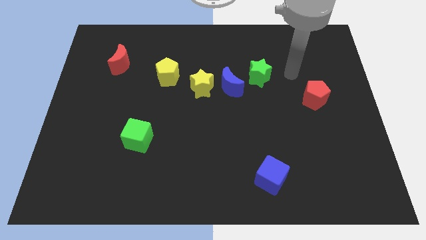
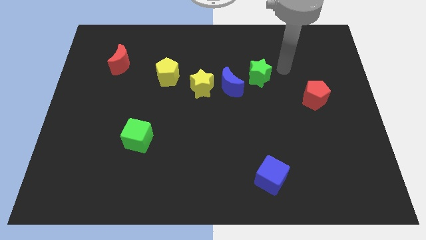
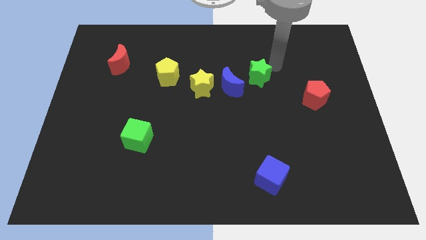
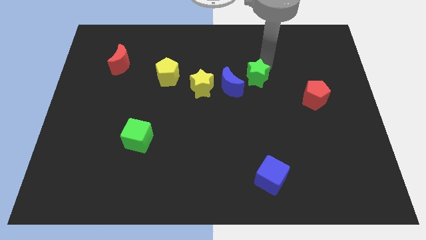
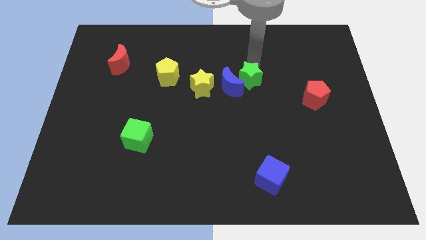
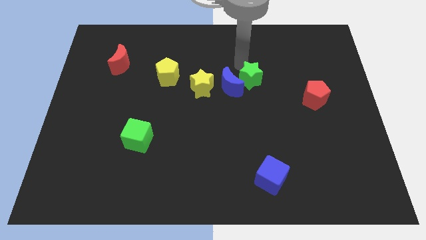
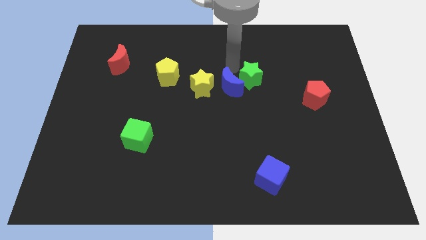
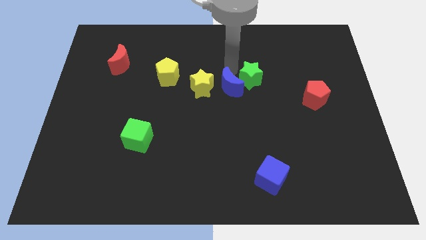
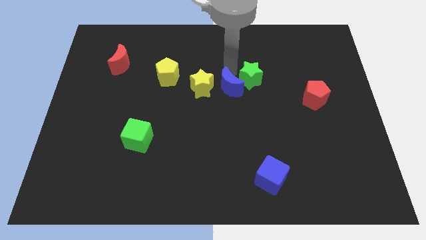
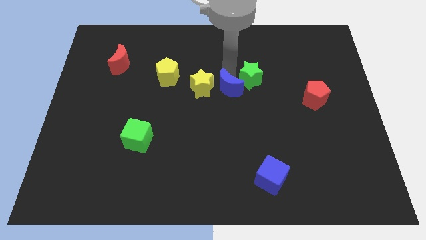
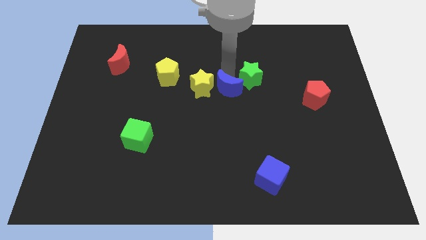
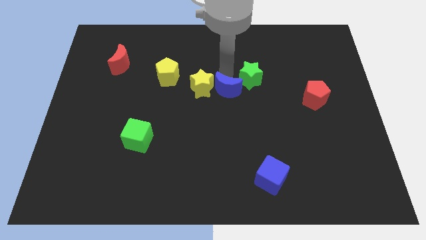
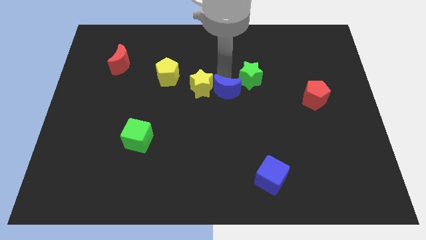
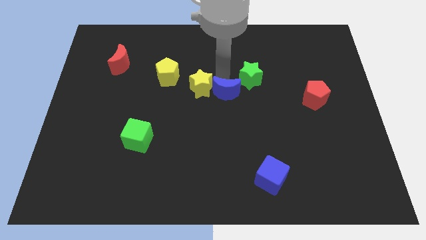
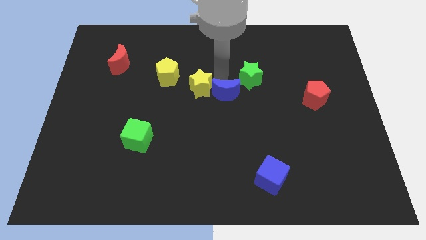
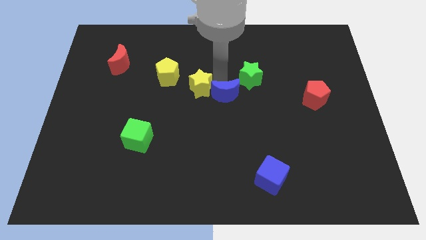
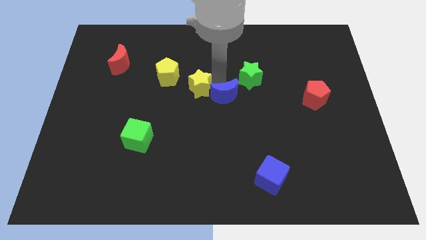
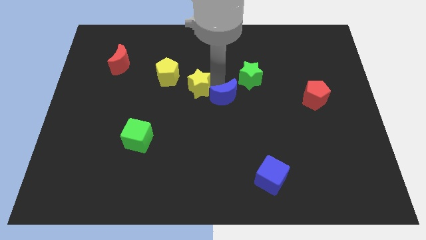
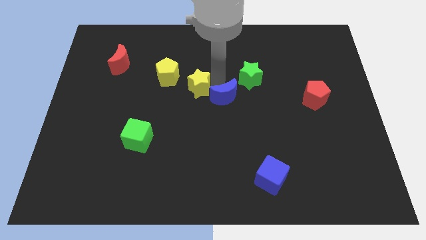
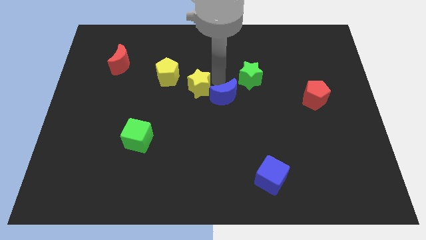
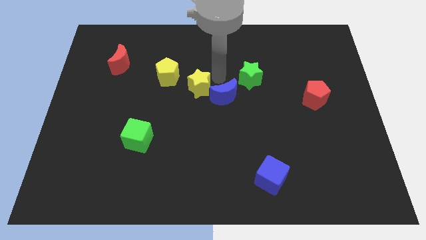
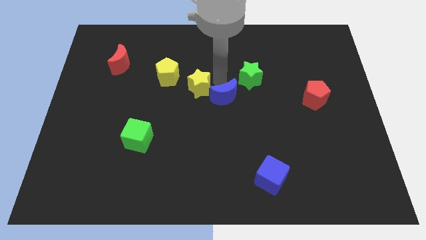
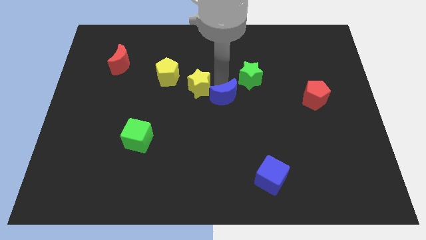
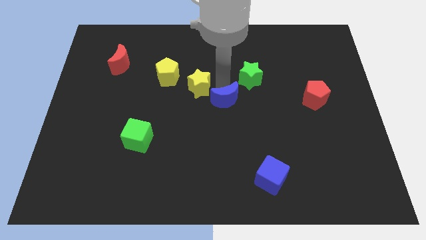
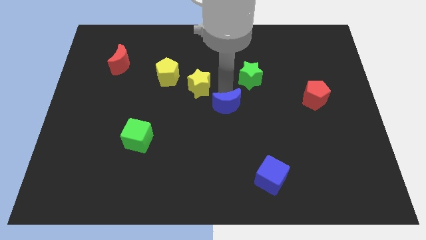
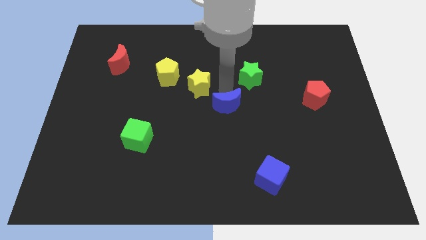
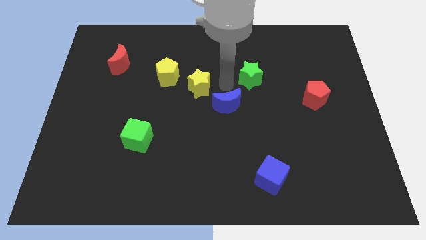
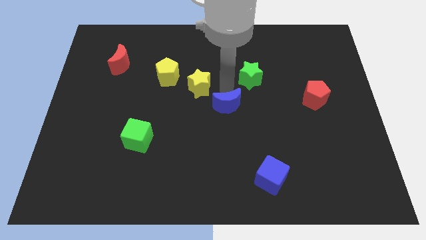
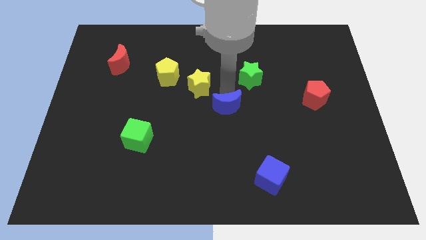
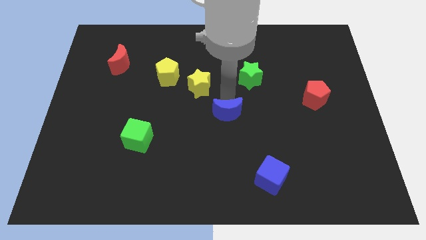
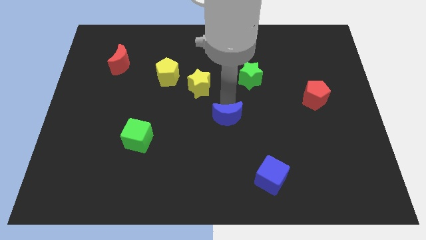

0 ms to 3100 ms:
move the blue moon away from the yellow star and green star

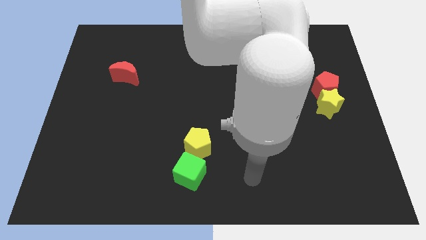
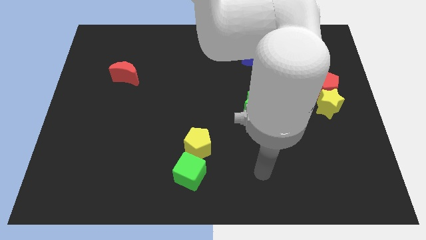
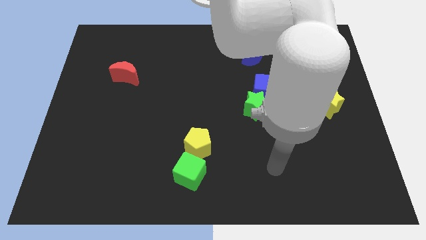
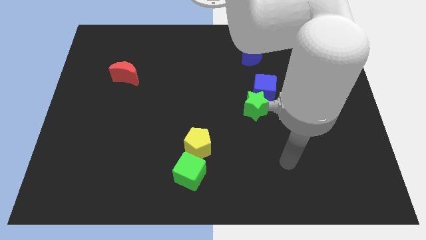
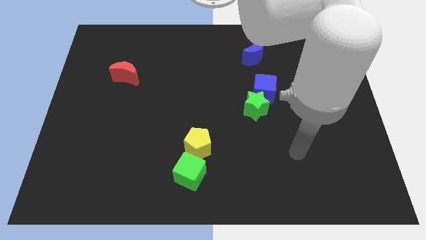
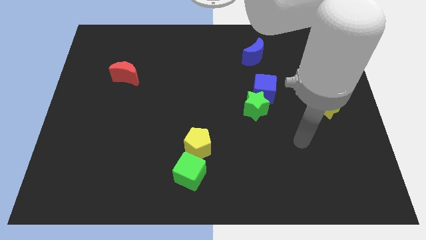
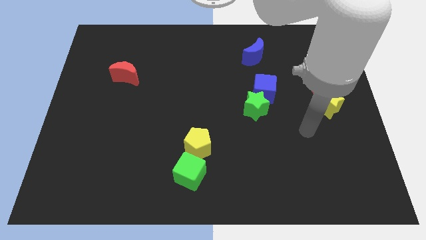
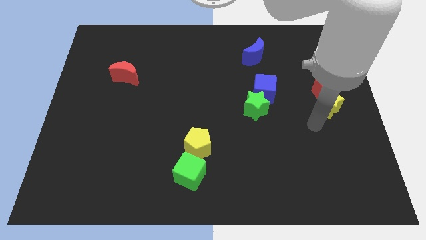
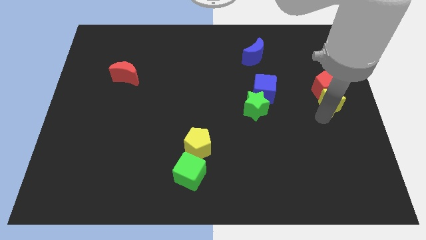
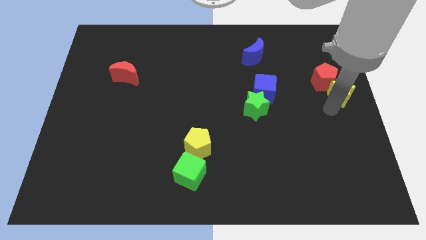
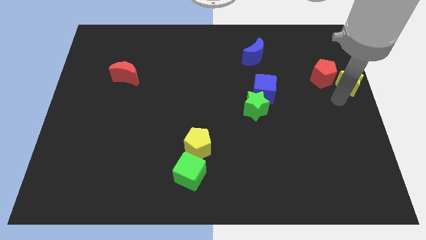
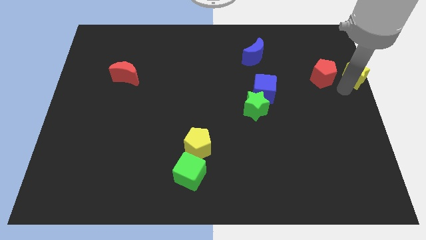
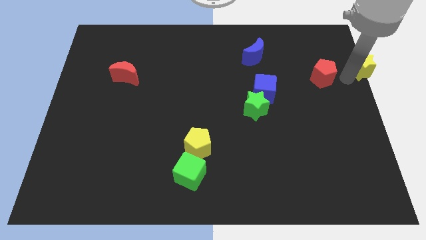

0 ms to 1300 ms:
move the red pentagon away from the yellow star

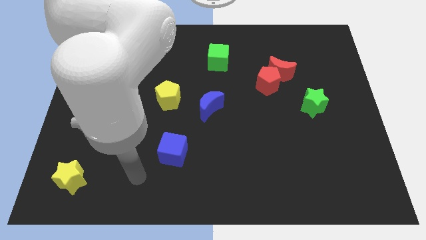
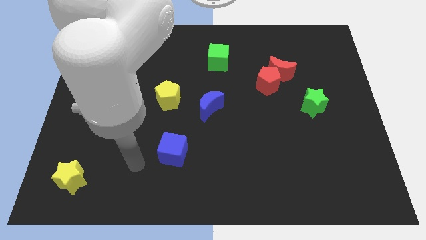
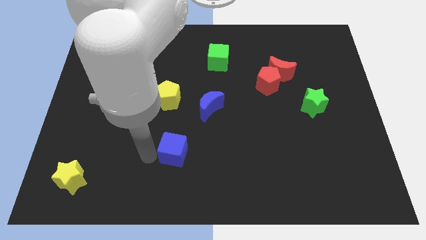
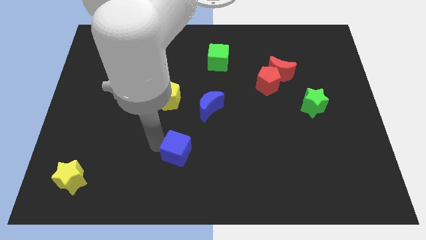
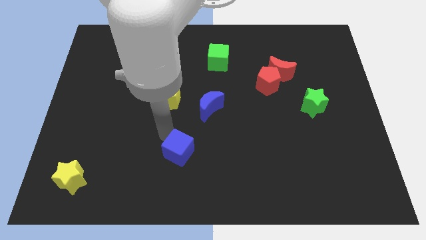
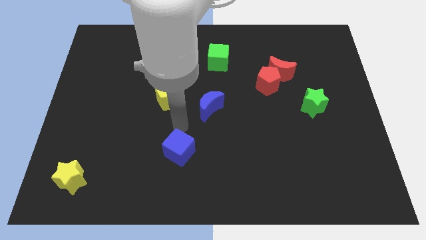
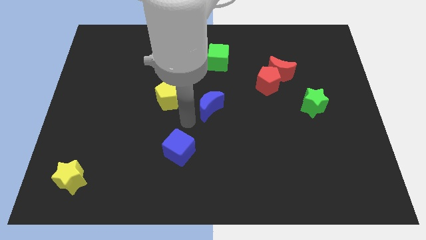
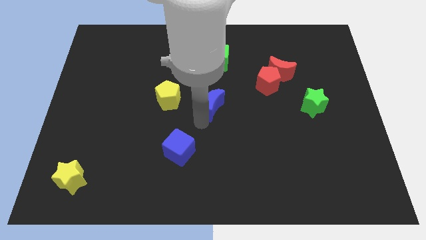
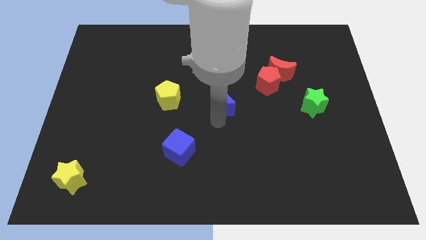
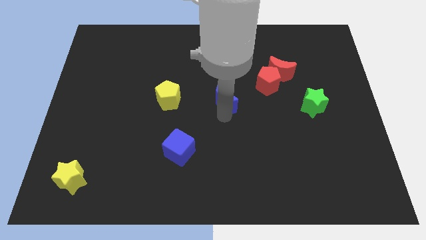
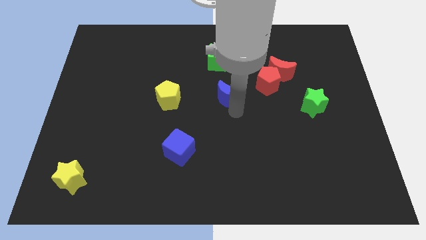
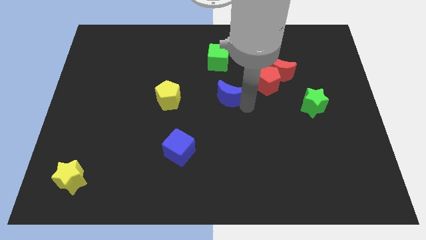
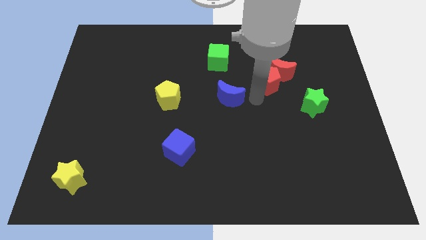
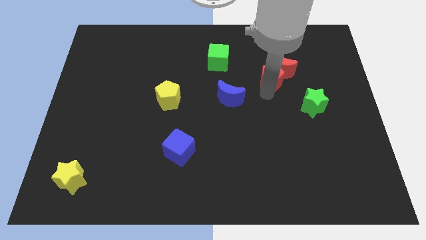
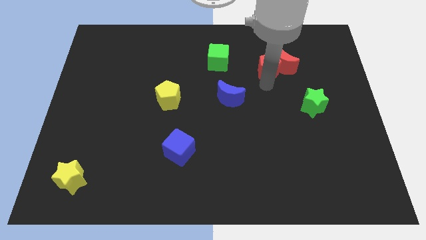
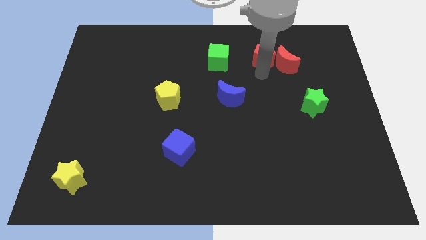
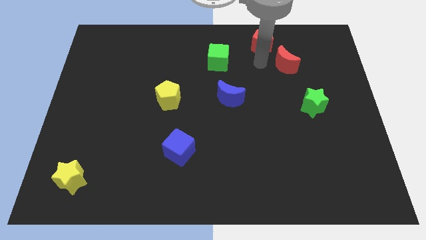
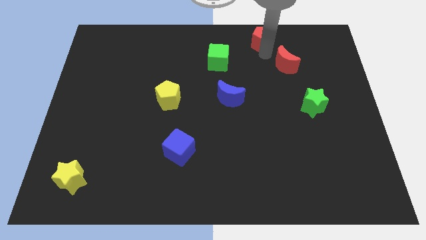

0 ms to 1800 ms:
separate the red moon from the red pentagon

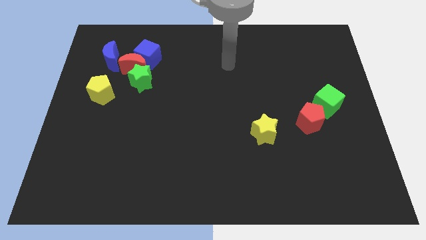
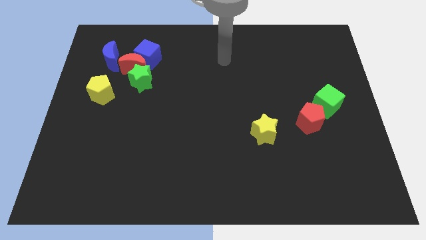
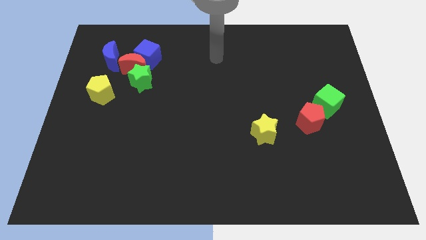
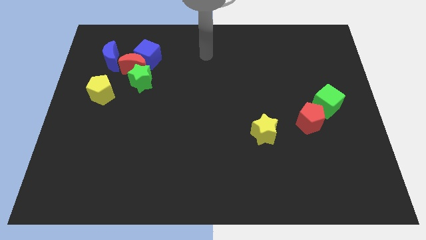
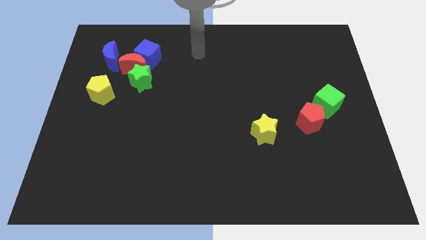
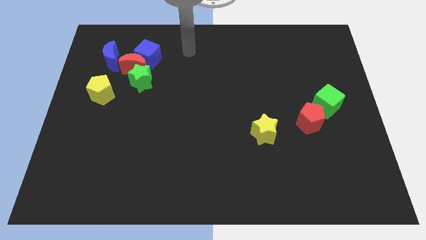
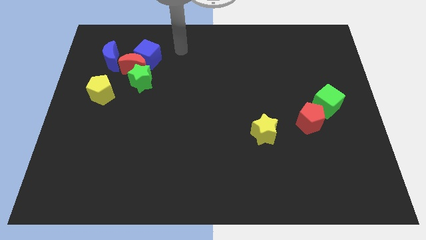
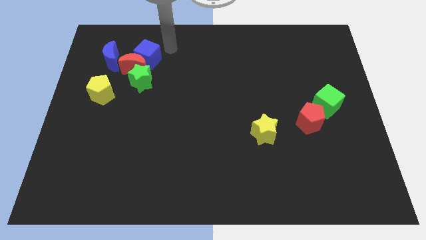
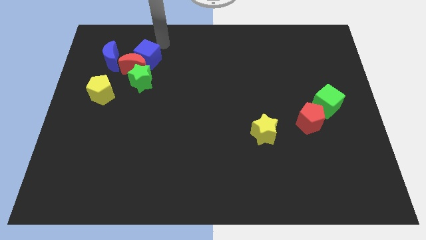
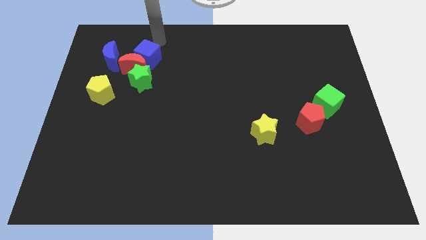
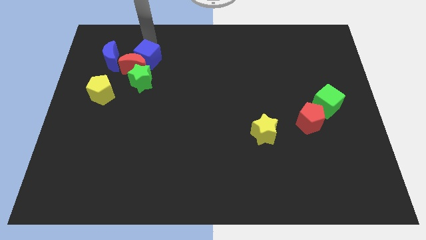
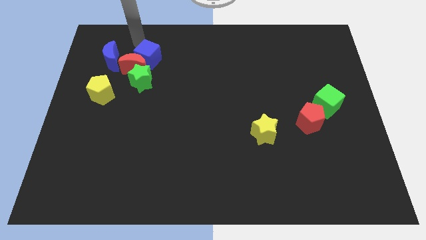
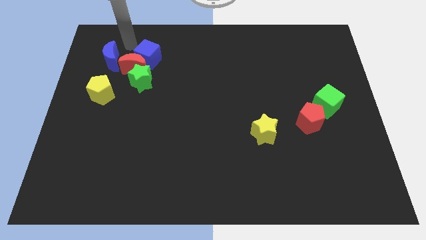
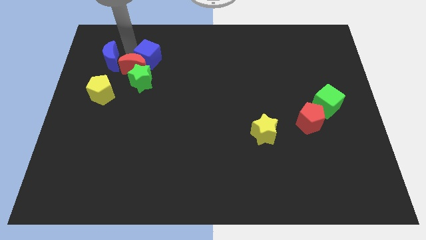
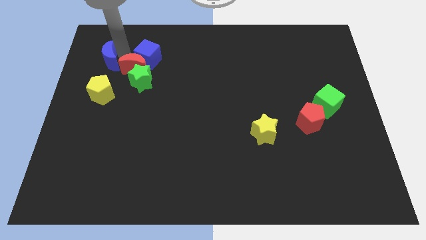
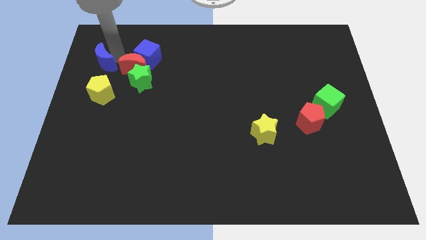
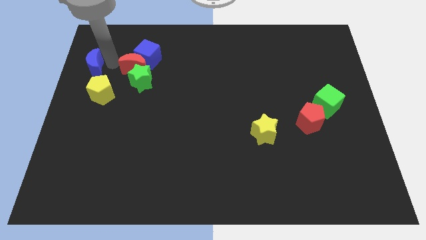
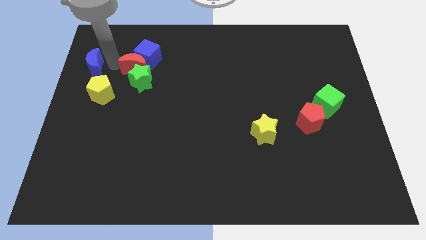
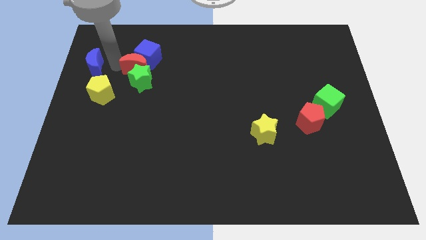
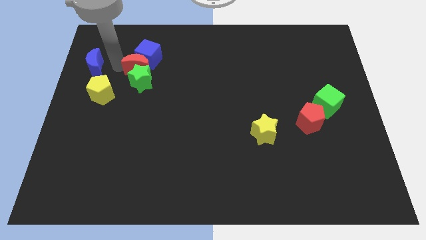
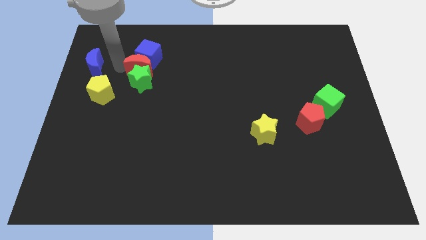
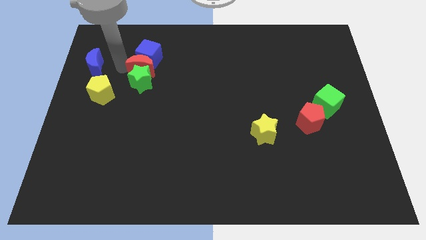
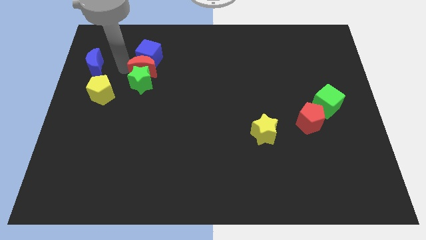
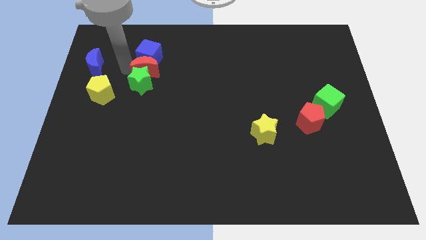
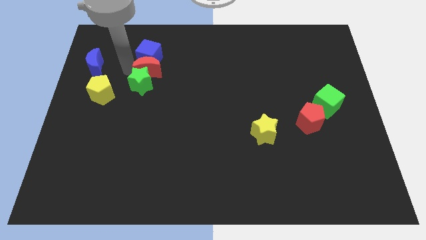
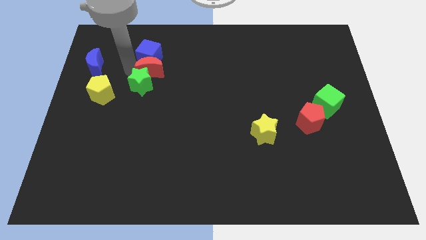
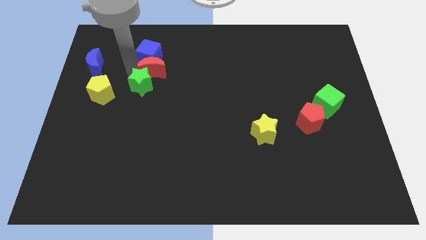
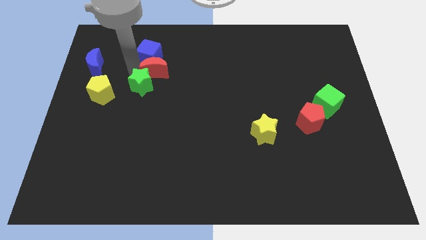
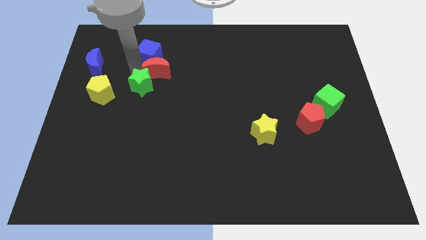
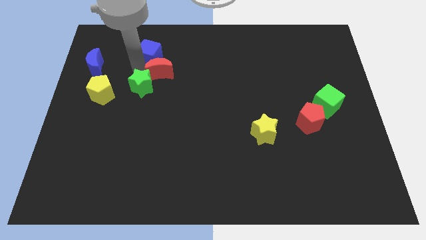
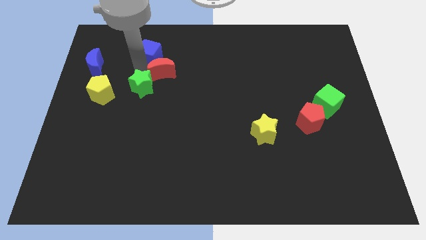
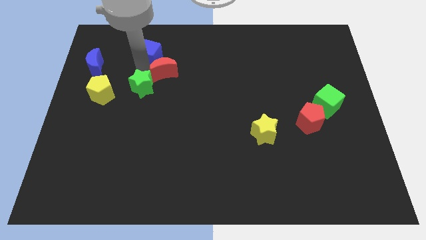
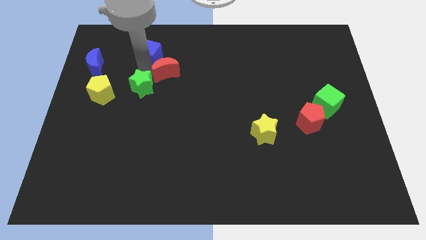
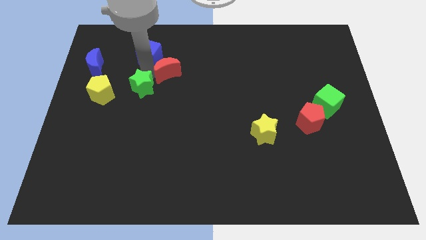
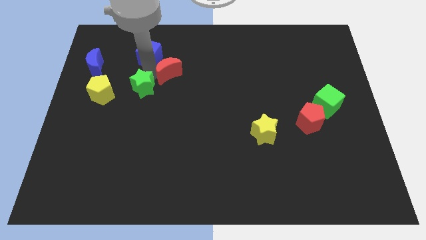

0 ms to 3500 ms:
pull the red moon apart from the clump
